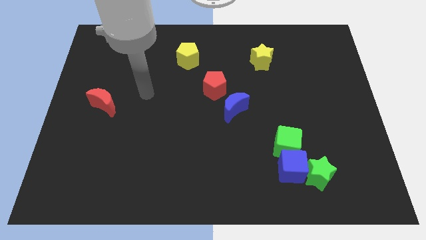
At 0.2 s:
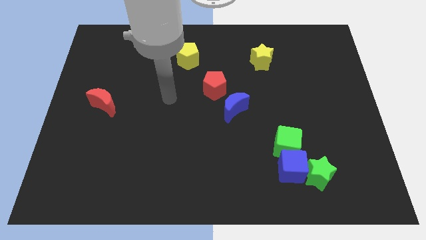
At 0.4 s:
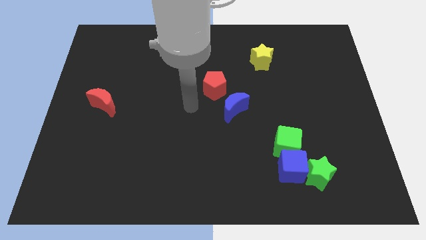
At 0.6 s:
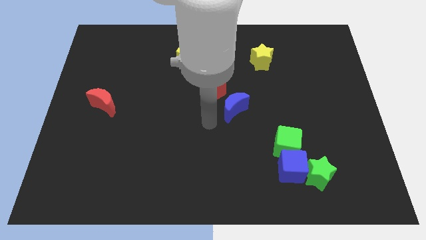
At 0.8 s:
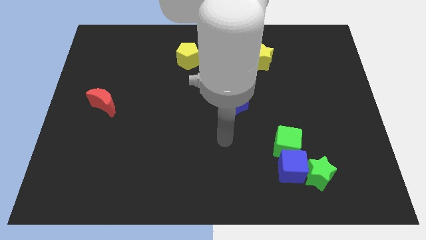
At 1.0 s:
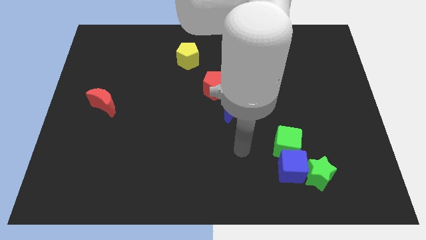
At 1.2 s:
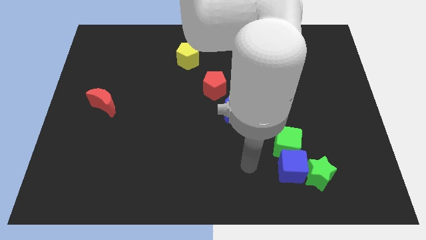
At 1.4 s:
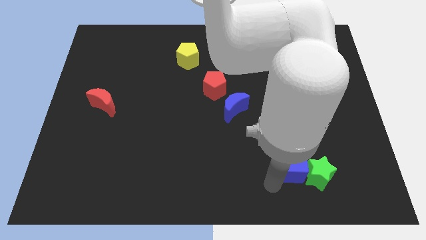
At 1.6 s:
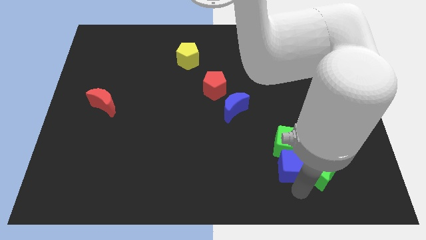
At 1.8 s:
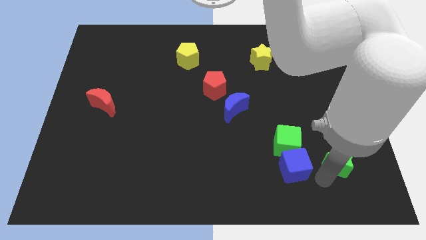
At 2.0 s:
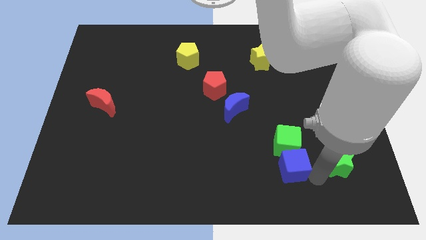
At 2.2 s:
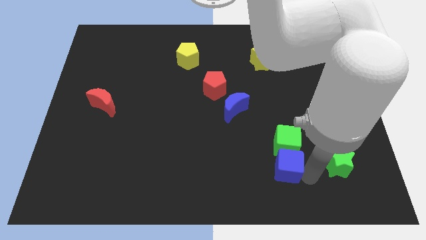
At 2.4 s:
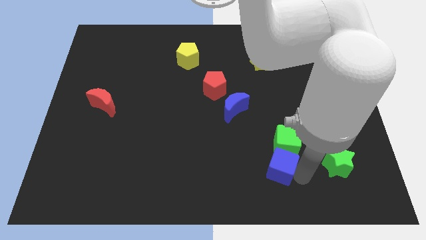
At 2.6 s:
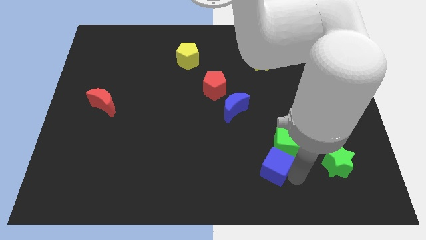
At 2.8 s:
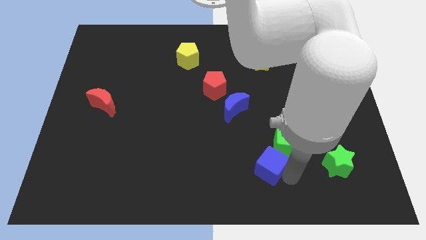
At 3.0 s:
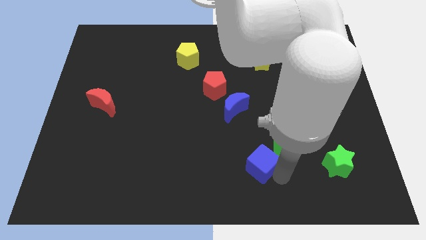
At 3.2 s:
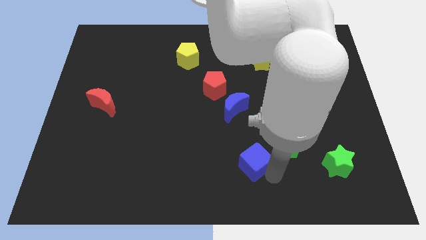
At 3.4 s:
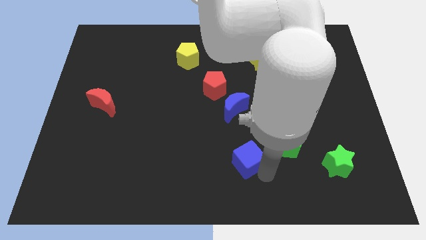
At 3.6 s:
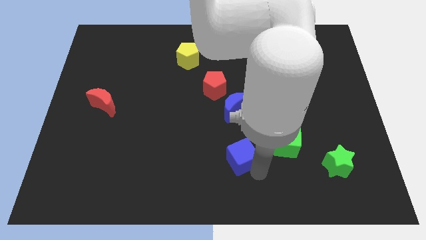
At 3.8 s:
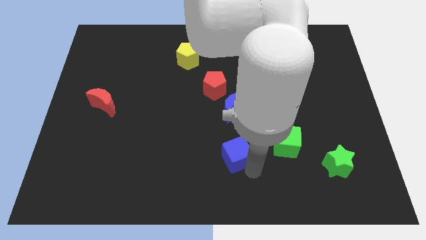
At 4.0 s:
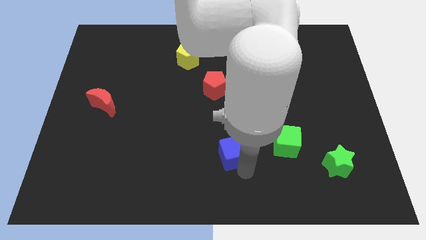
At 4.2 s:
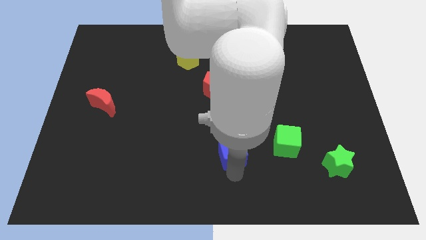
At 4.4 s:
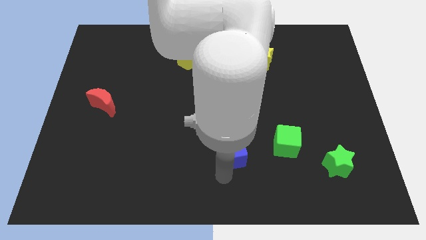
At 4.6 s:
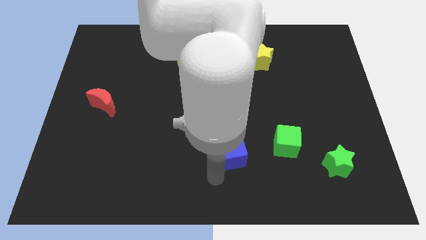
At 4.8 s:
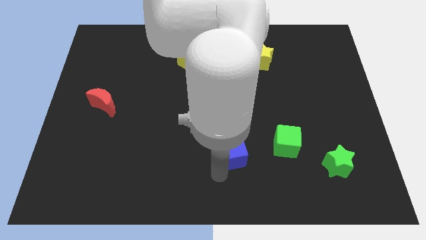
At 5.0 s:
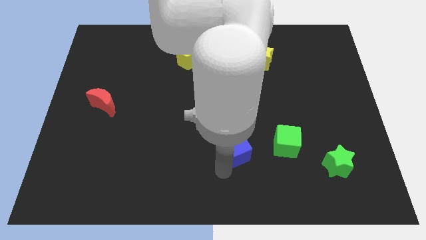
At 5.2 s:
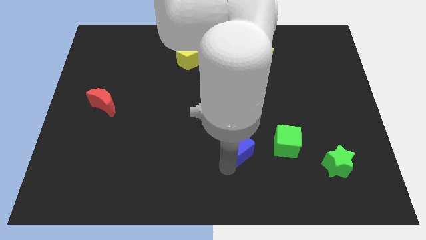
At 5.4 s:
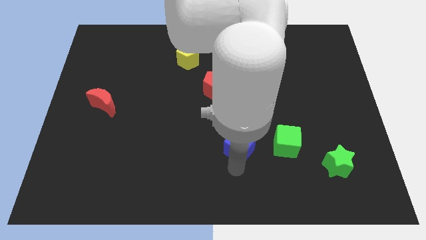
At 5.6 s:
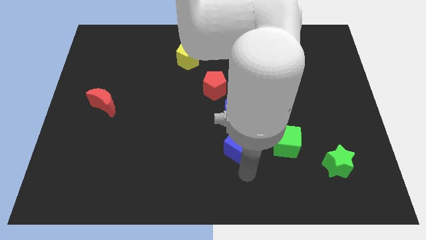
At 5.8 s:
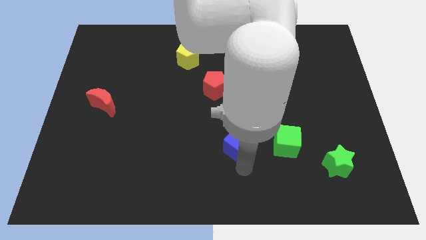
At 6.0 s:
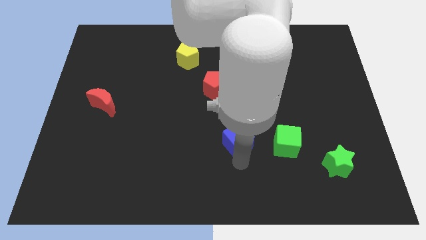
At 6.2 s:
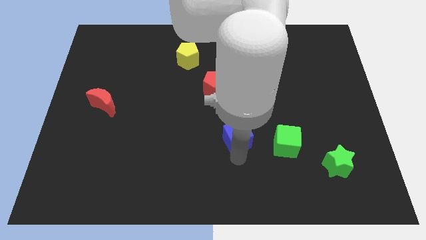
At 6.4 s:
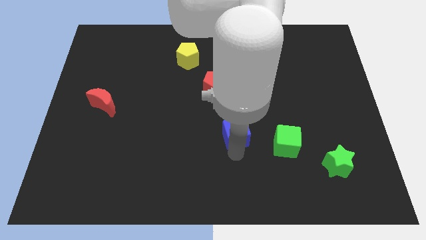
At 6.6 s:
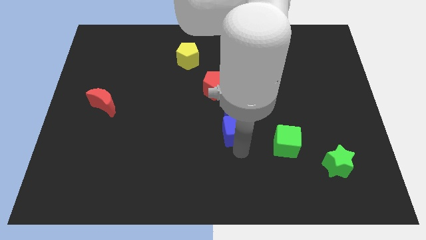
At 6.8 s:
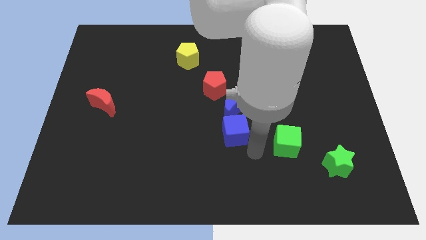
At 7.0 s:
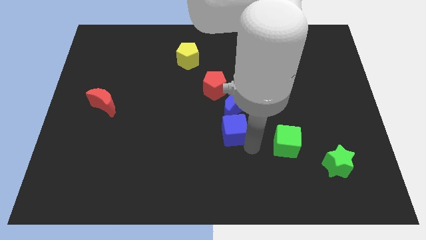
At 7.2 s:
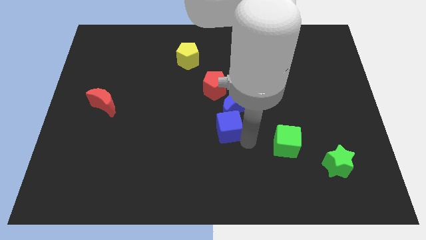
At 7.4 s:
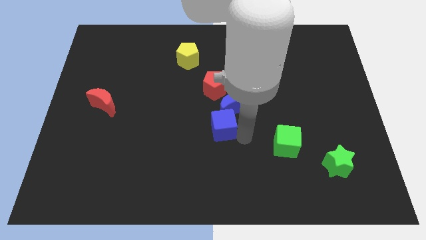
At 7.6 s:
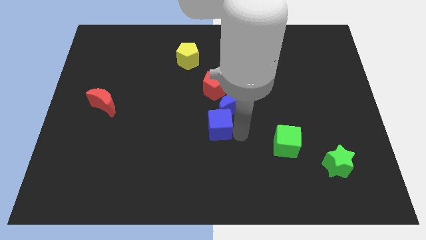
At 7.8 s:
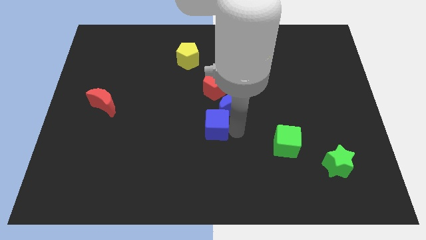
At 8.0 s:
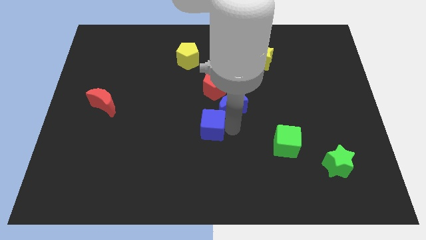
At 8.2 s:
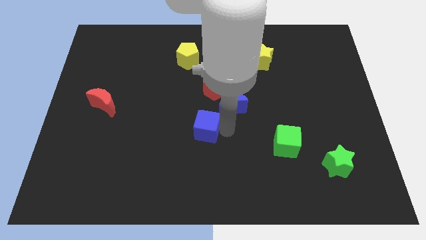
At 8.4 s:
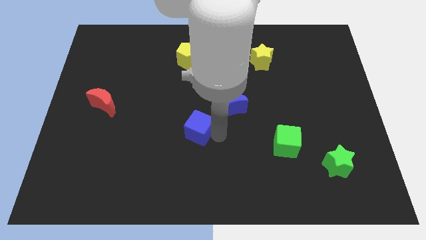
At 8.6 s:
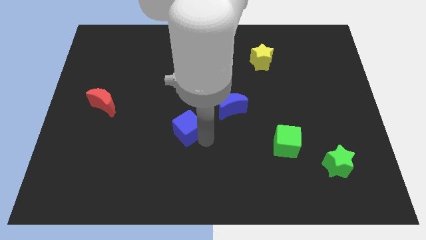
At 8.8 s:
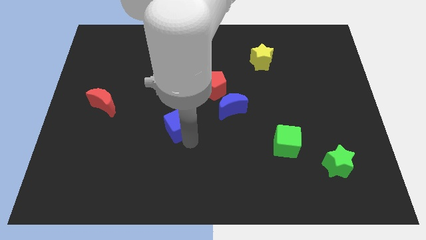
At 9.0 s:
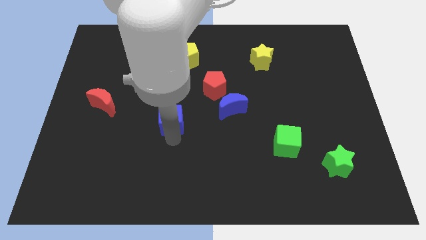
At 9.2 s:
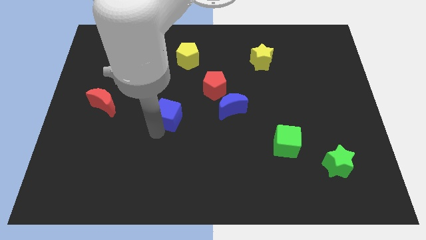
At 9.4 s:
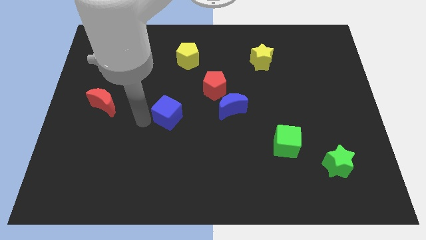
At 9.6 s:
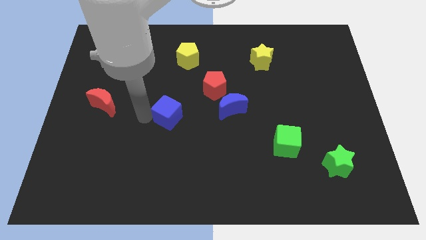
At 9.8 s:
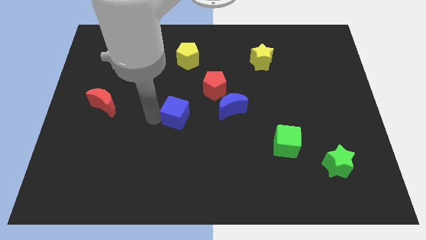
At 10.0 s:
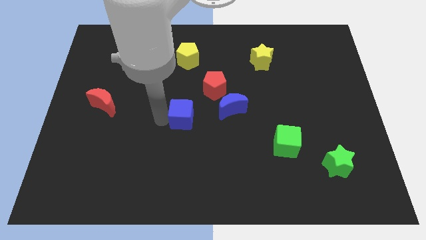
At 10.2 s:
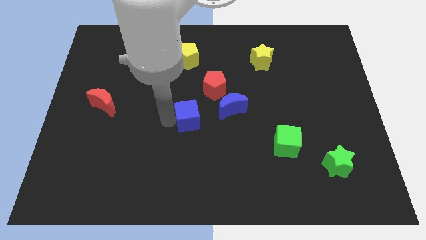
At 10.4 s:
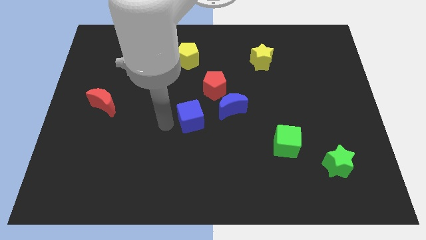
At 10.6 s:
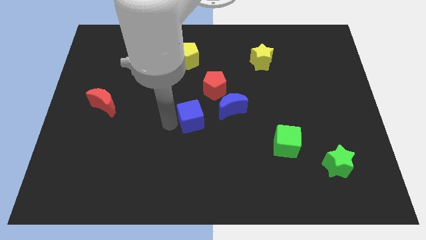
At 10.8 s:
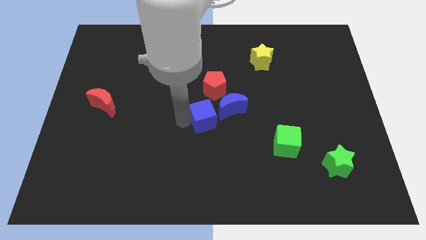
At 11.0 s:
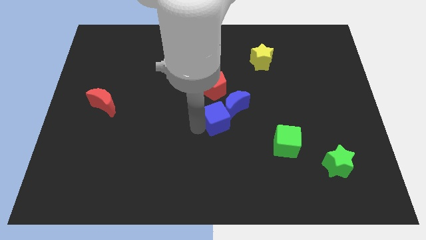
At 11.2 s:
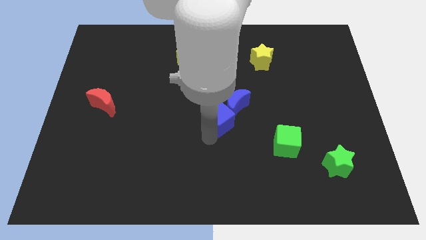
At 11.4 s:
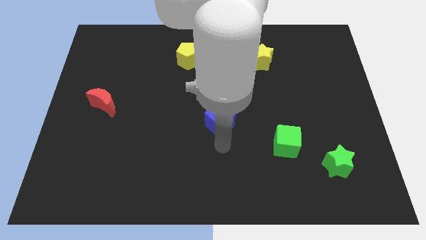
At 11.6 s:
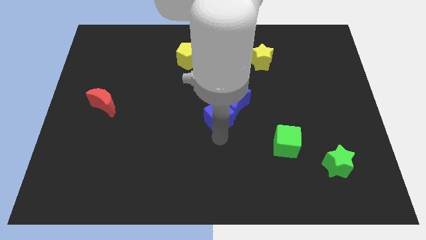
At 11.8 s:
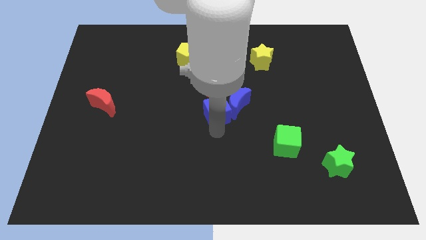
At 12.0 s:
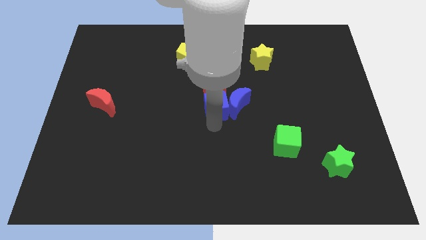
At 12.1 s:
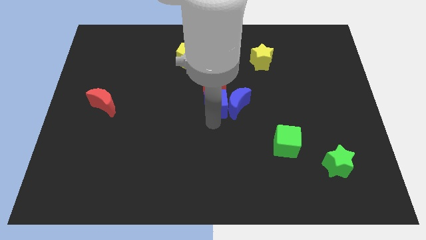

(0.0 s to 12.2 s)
move the blue cube next to the red pentagon

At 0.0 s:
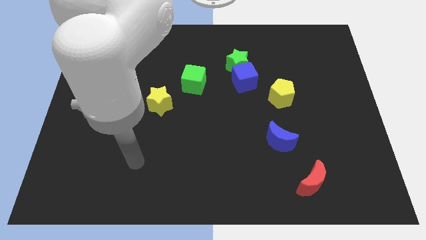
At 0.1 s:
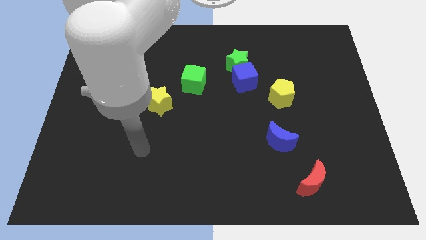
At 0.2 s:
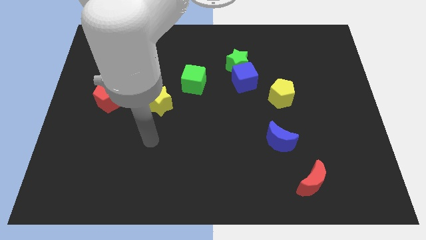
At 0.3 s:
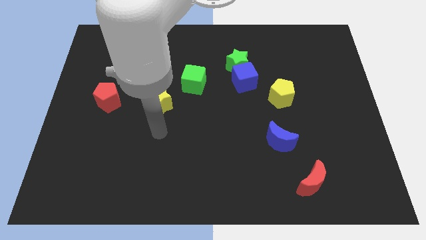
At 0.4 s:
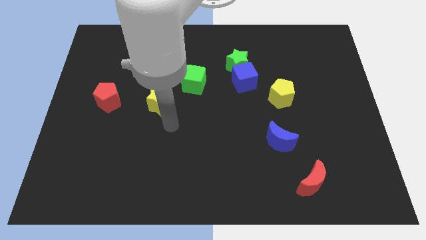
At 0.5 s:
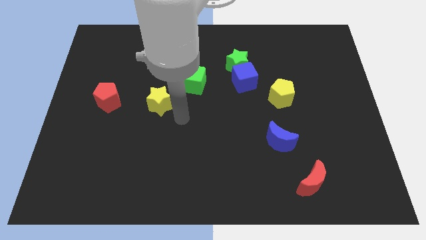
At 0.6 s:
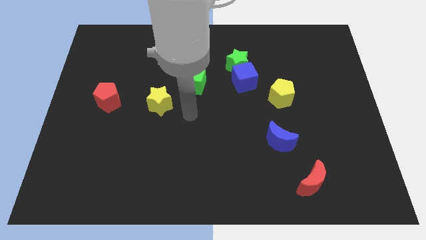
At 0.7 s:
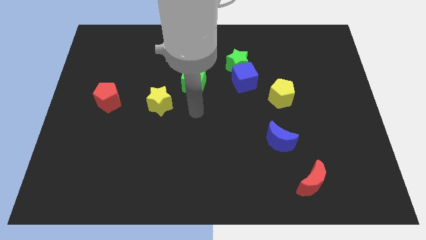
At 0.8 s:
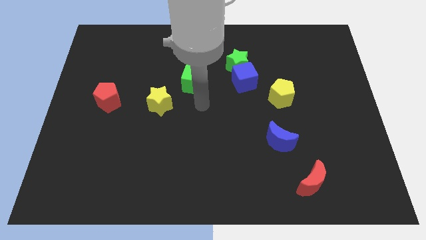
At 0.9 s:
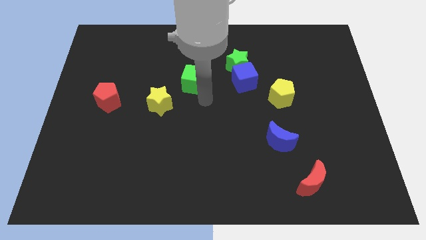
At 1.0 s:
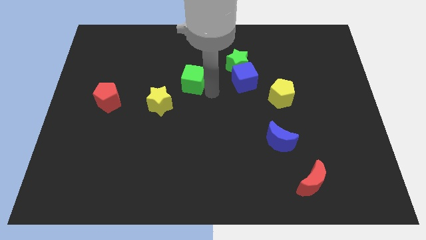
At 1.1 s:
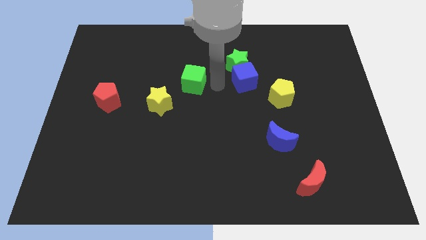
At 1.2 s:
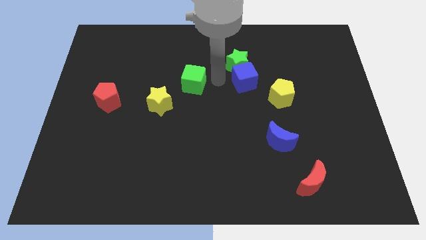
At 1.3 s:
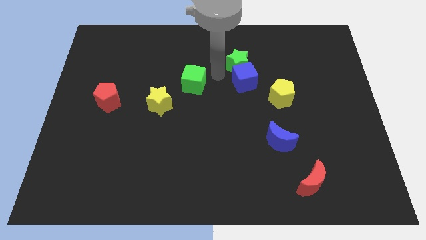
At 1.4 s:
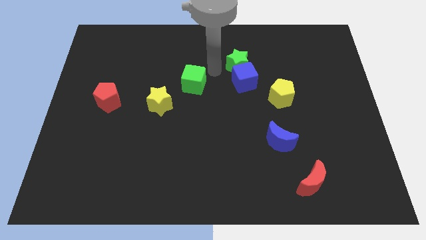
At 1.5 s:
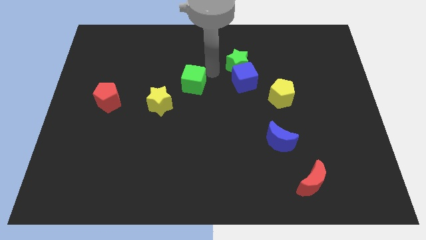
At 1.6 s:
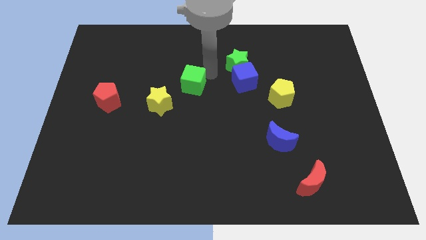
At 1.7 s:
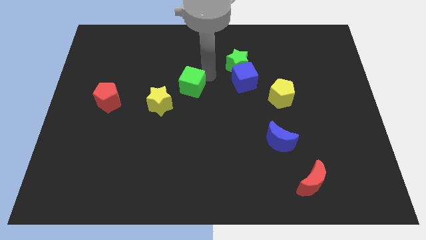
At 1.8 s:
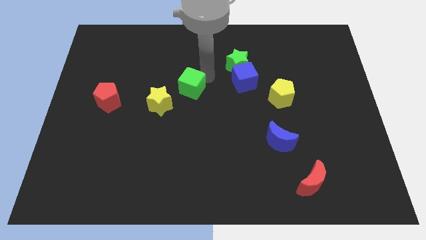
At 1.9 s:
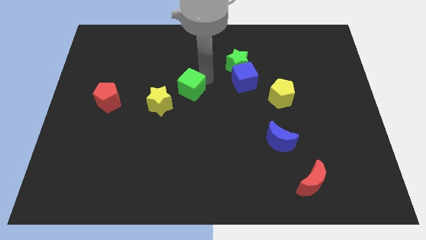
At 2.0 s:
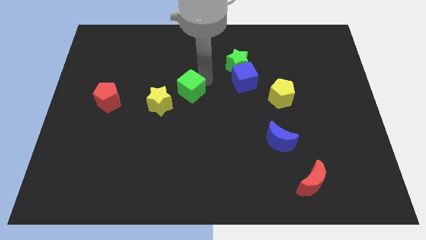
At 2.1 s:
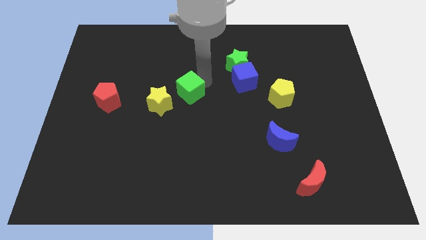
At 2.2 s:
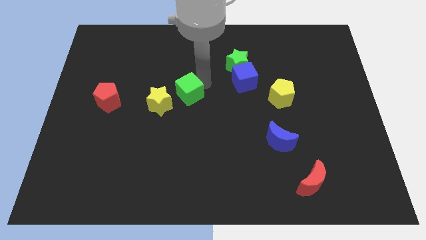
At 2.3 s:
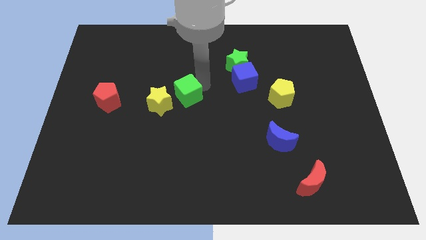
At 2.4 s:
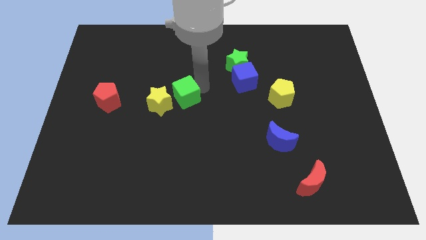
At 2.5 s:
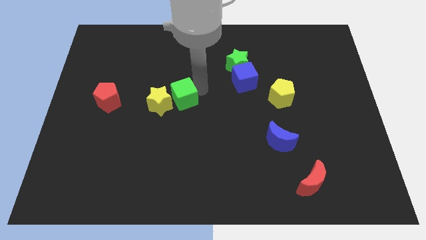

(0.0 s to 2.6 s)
push the green cube close to the yellow star
